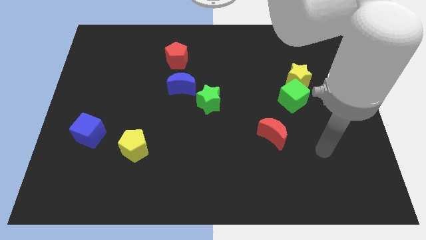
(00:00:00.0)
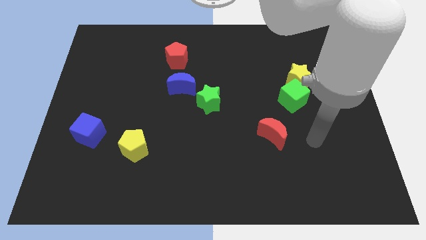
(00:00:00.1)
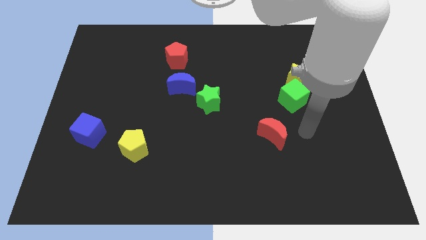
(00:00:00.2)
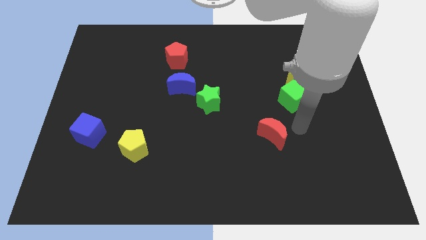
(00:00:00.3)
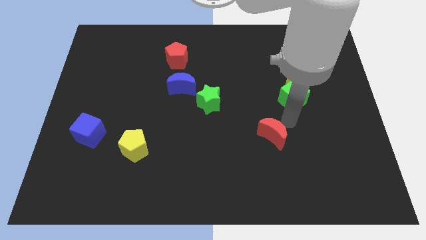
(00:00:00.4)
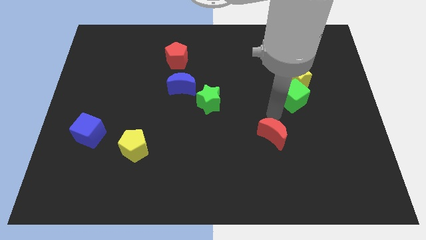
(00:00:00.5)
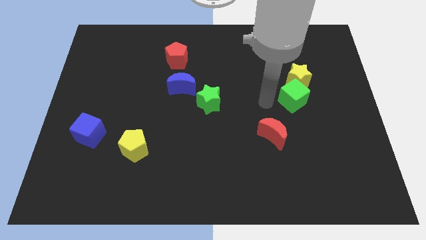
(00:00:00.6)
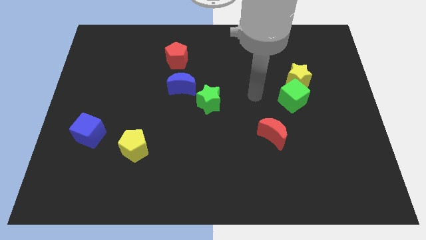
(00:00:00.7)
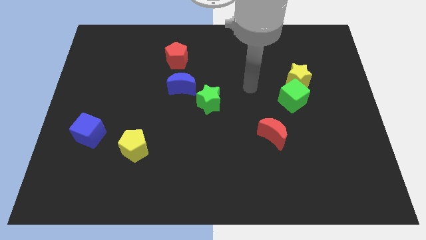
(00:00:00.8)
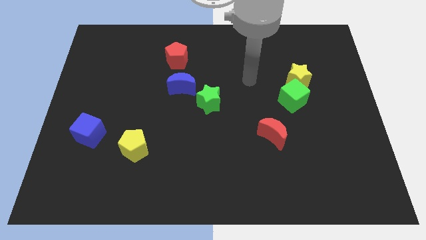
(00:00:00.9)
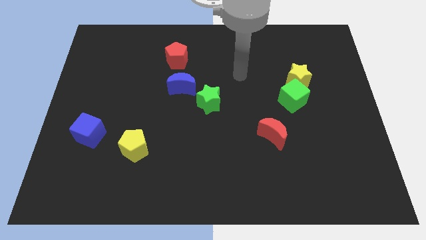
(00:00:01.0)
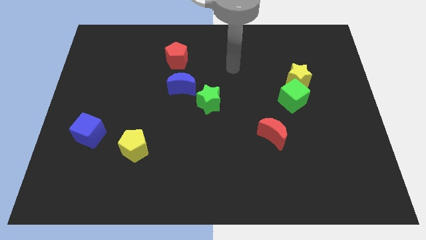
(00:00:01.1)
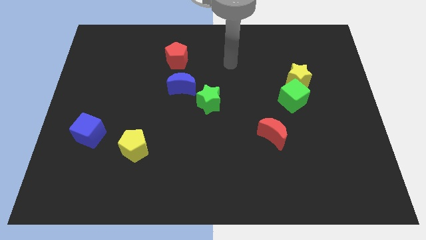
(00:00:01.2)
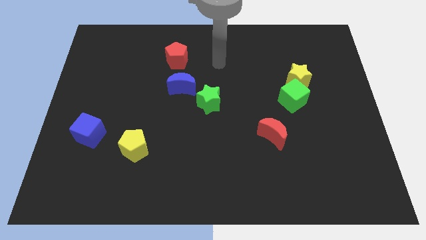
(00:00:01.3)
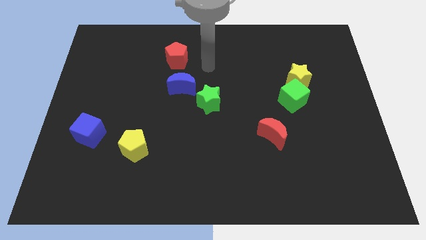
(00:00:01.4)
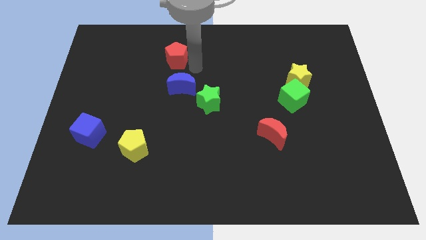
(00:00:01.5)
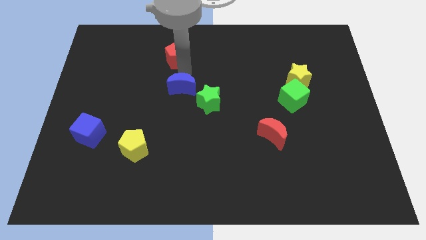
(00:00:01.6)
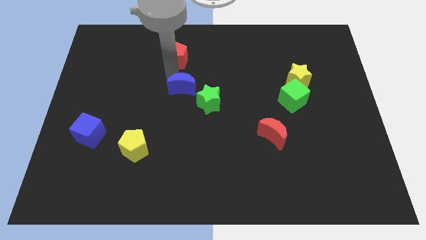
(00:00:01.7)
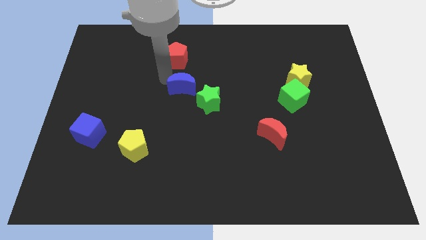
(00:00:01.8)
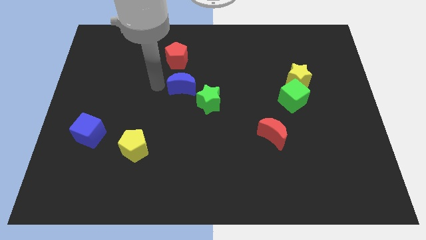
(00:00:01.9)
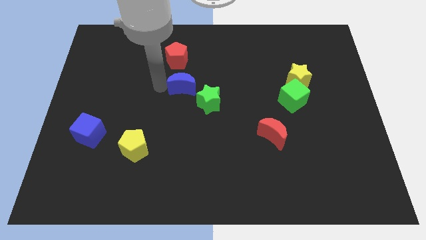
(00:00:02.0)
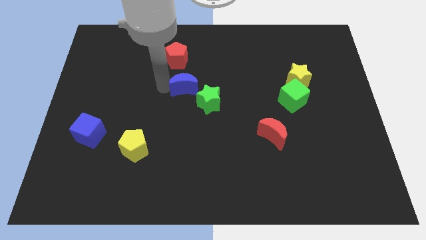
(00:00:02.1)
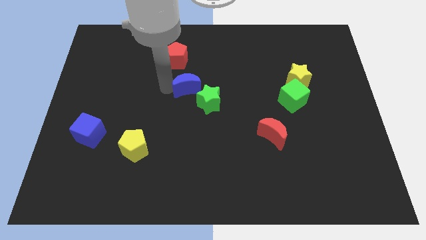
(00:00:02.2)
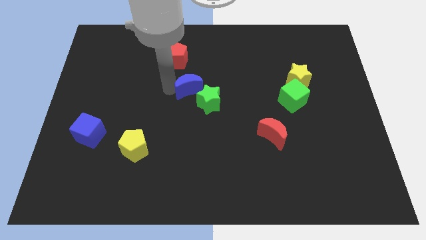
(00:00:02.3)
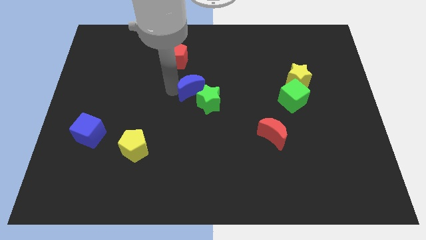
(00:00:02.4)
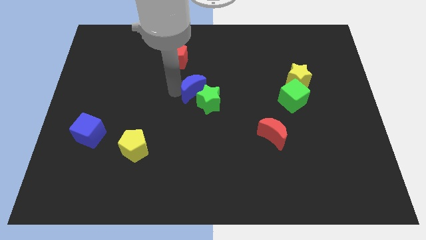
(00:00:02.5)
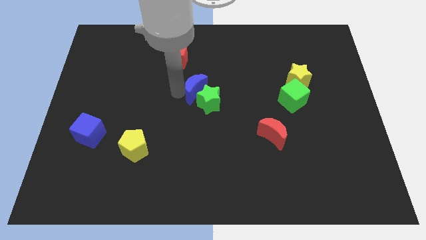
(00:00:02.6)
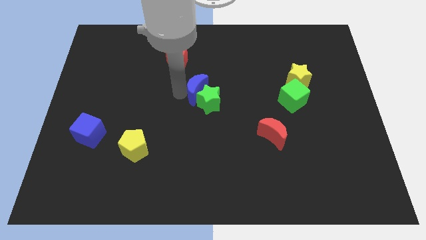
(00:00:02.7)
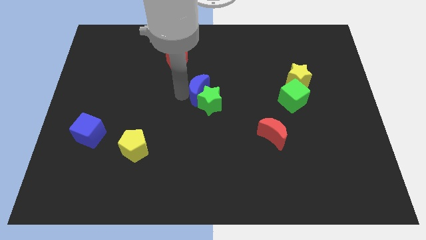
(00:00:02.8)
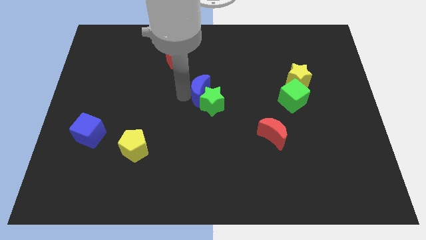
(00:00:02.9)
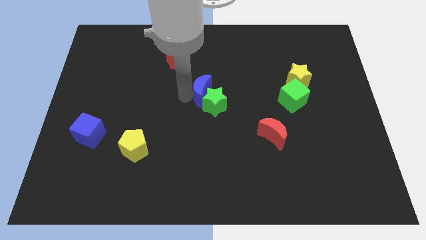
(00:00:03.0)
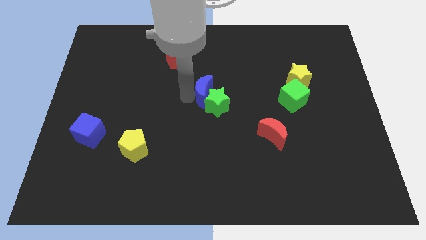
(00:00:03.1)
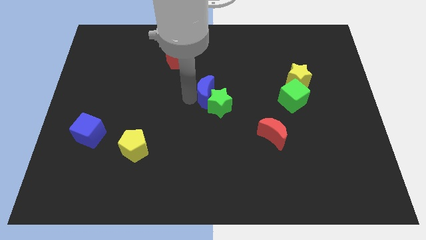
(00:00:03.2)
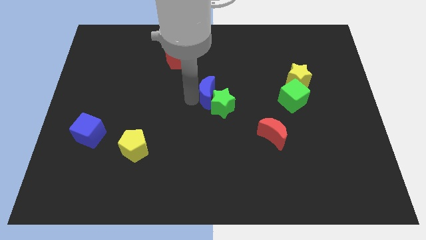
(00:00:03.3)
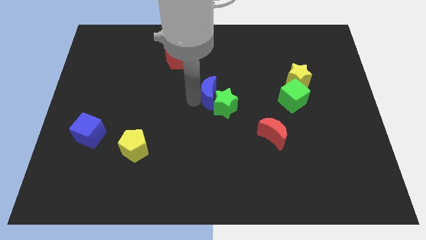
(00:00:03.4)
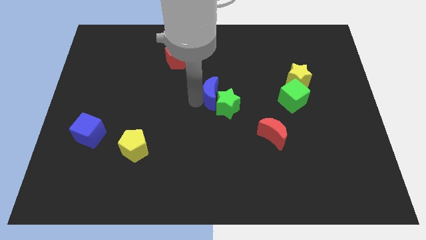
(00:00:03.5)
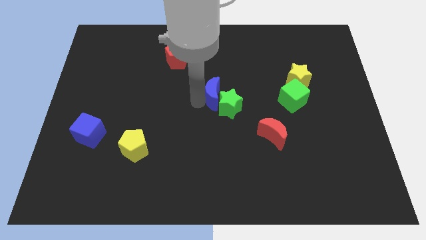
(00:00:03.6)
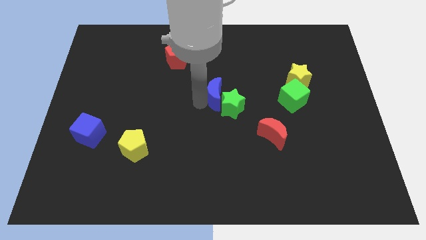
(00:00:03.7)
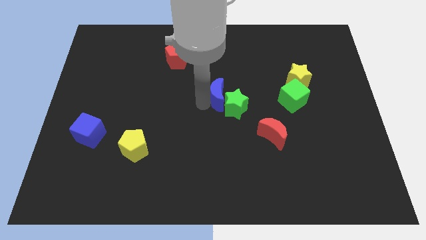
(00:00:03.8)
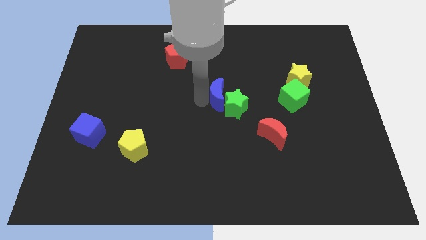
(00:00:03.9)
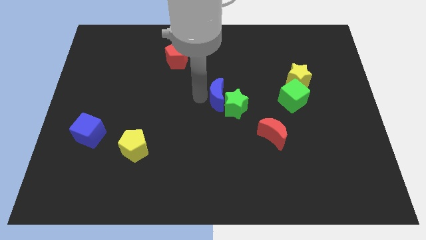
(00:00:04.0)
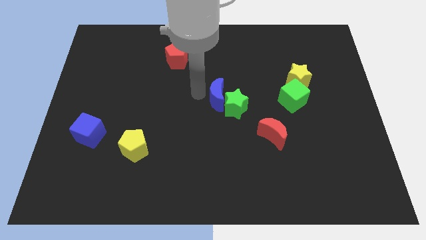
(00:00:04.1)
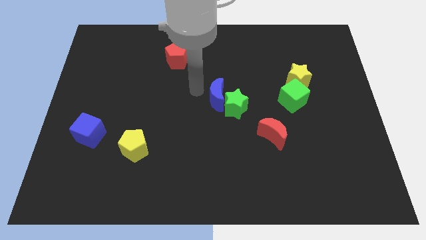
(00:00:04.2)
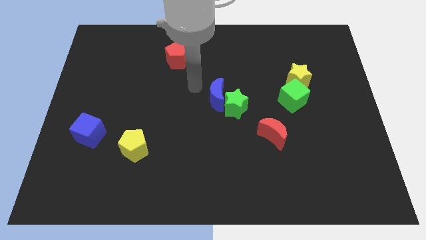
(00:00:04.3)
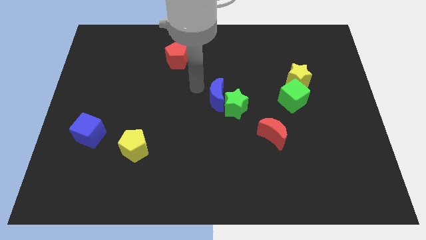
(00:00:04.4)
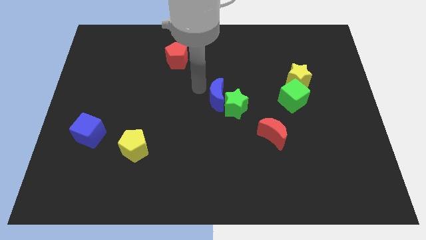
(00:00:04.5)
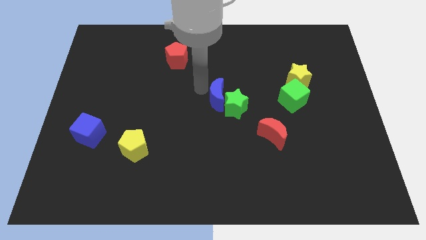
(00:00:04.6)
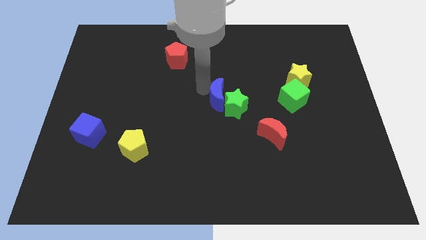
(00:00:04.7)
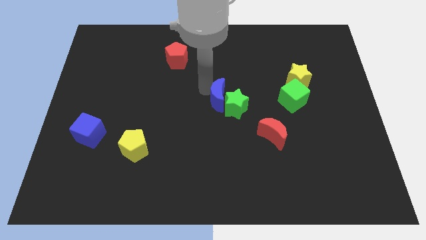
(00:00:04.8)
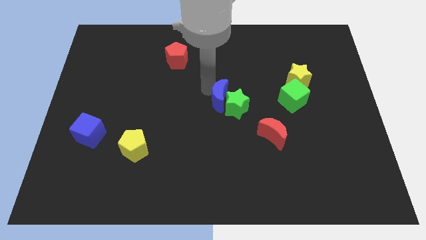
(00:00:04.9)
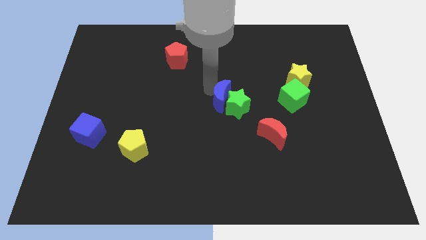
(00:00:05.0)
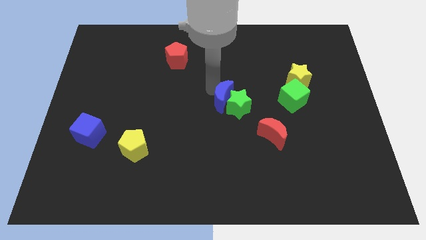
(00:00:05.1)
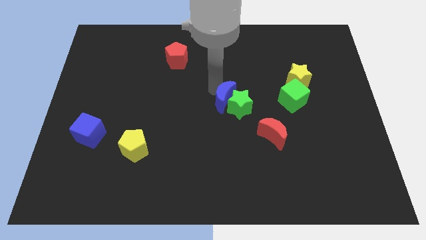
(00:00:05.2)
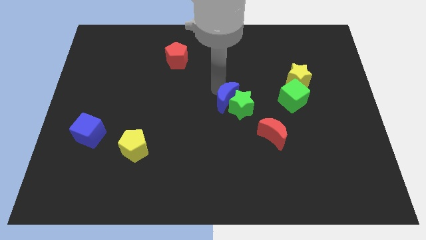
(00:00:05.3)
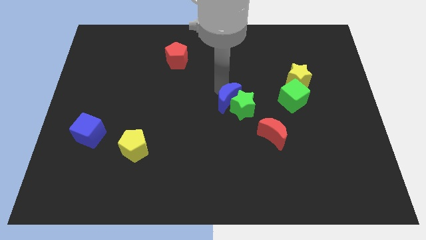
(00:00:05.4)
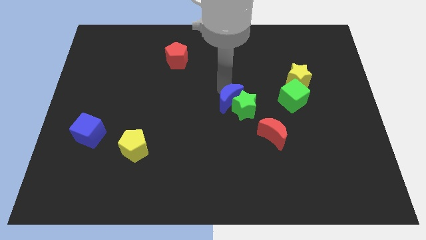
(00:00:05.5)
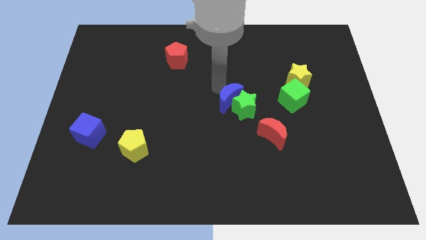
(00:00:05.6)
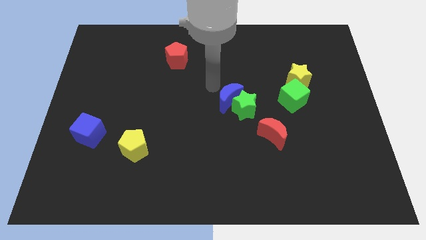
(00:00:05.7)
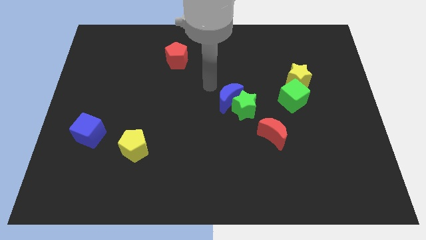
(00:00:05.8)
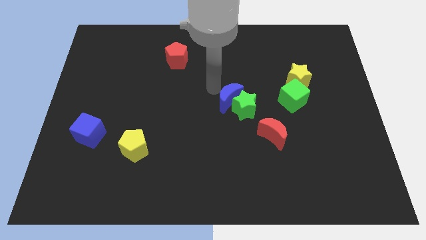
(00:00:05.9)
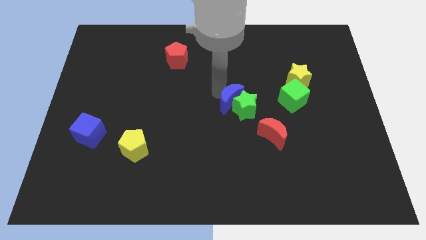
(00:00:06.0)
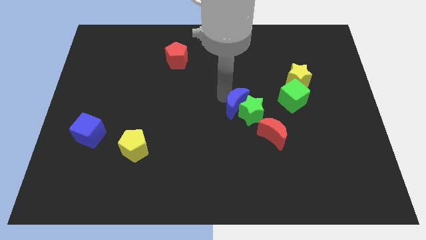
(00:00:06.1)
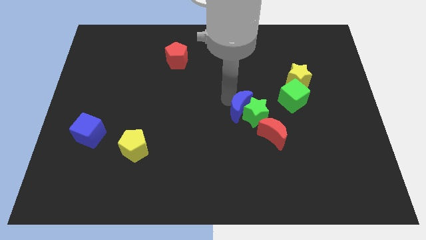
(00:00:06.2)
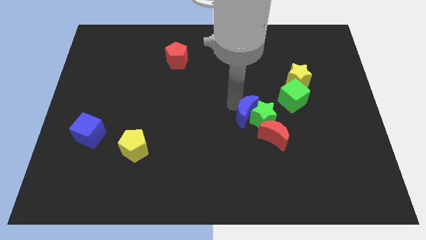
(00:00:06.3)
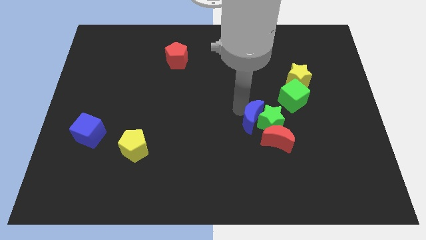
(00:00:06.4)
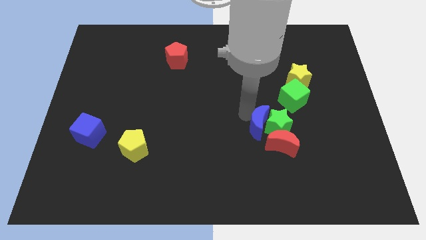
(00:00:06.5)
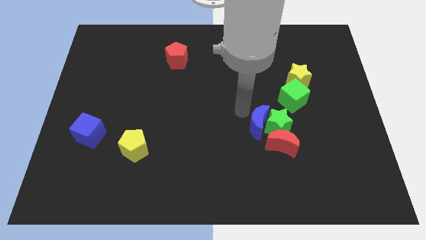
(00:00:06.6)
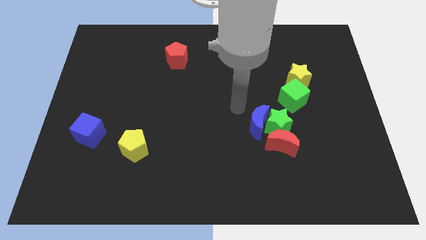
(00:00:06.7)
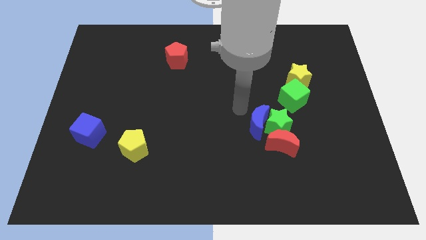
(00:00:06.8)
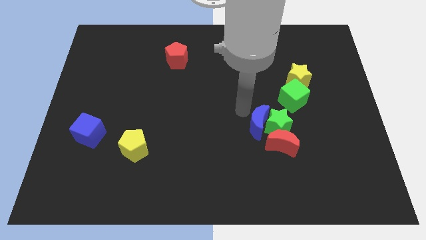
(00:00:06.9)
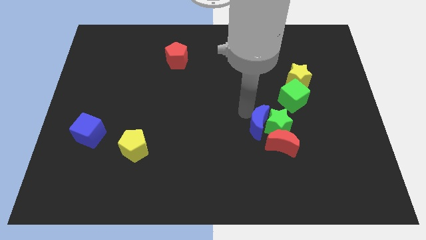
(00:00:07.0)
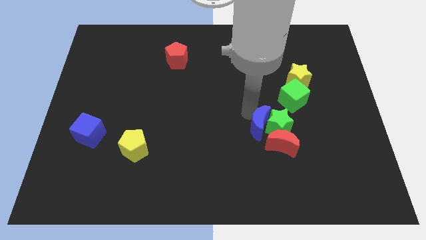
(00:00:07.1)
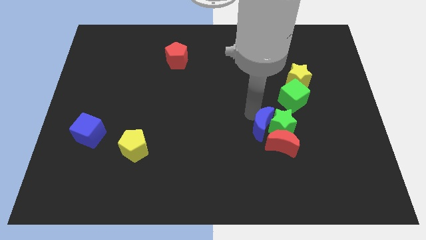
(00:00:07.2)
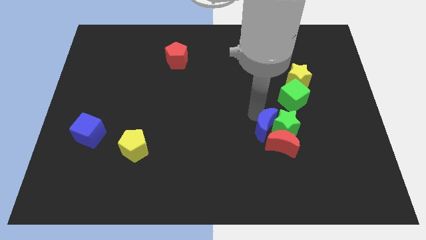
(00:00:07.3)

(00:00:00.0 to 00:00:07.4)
put the blue moon to the red moon
